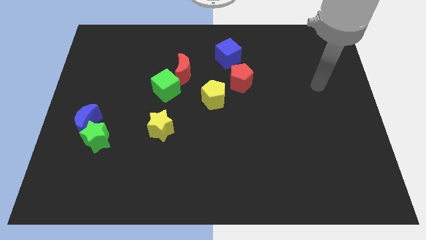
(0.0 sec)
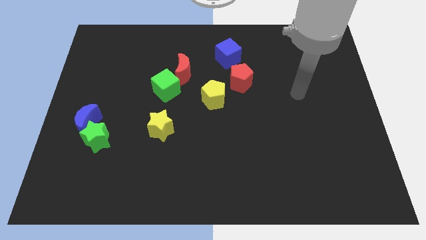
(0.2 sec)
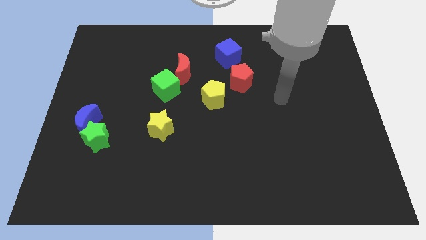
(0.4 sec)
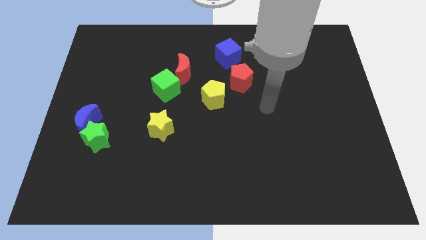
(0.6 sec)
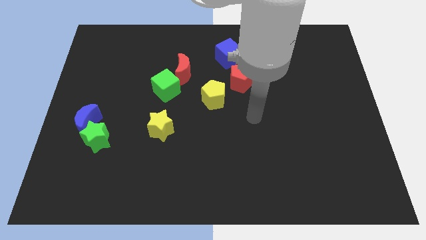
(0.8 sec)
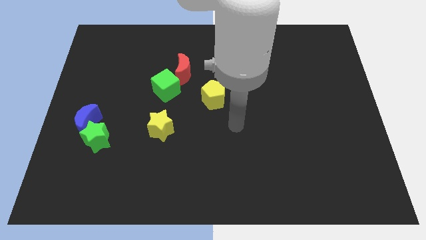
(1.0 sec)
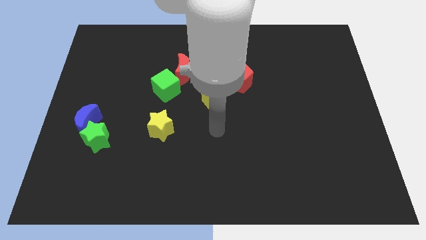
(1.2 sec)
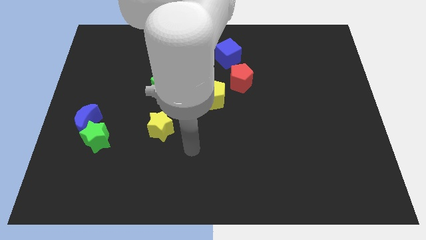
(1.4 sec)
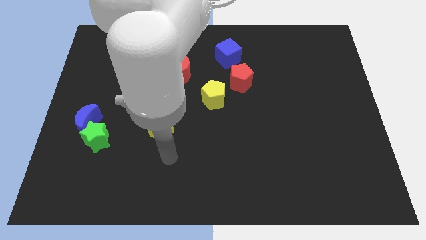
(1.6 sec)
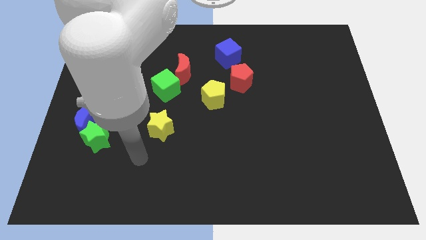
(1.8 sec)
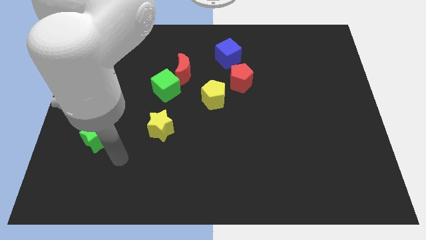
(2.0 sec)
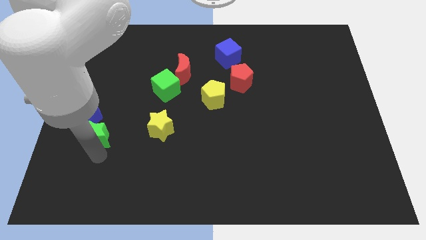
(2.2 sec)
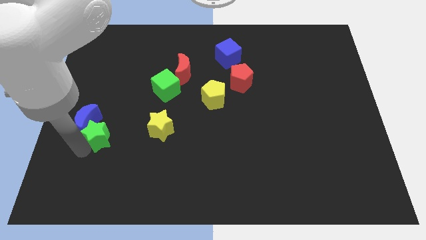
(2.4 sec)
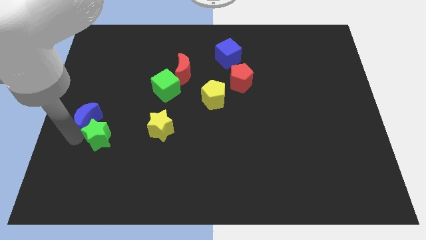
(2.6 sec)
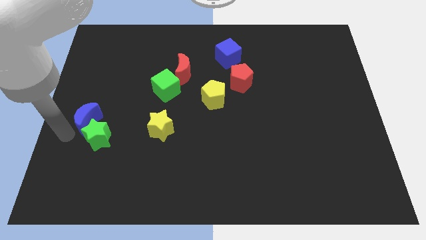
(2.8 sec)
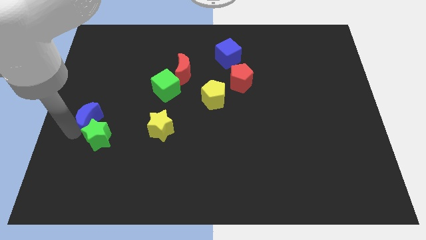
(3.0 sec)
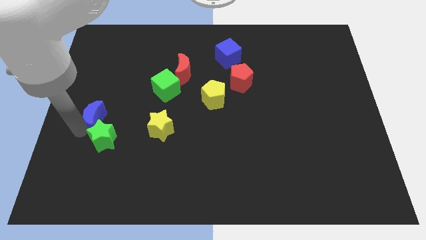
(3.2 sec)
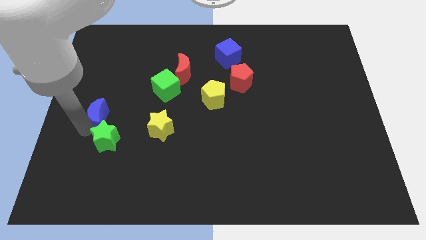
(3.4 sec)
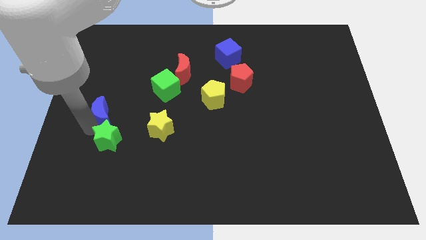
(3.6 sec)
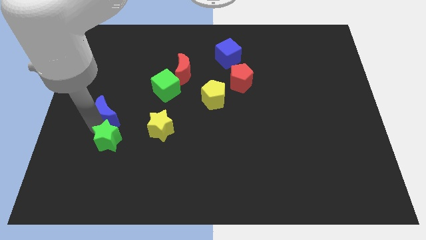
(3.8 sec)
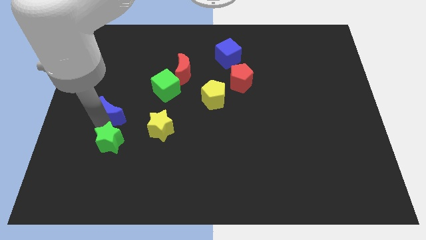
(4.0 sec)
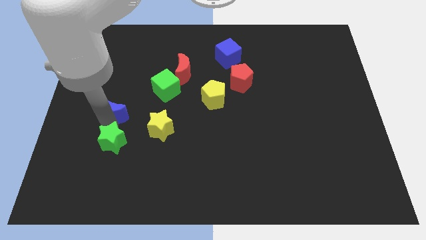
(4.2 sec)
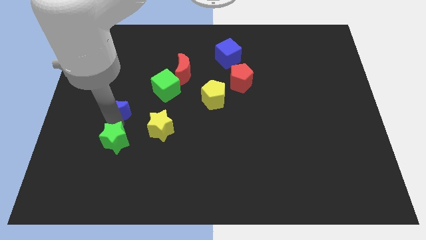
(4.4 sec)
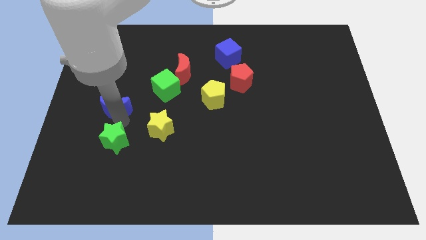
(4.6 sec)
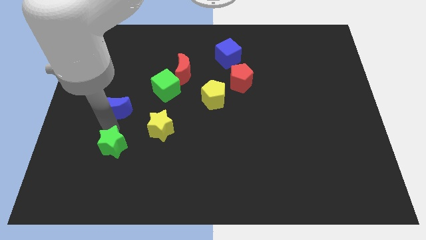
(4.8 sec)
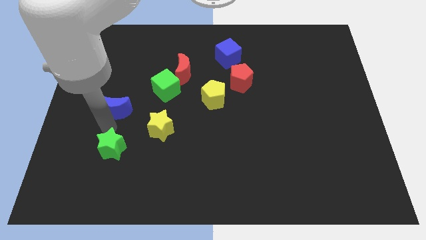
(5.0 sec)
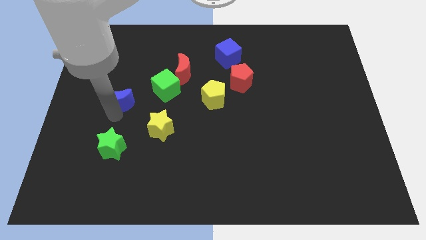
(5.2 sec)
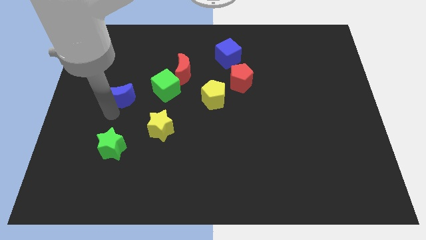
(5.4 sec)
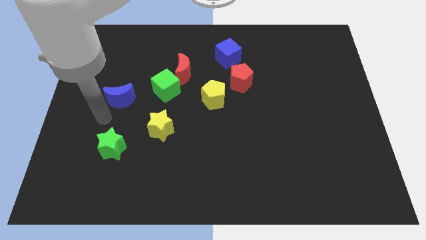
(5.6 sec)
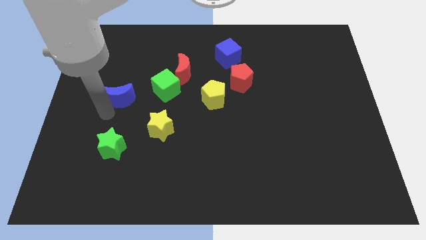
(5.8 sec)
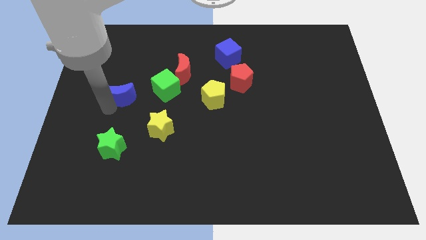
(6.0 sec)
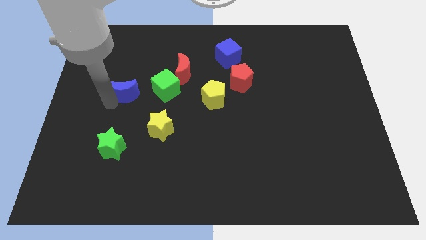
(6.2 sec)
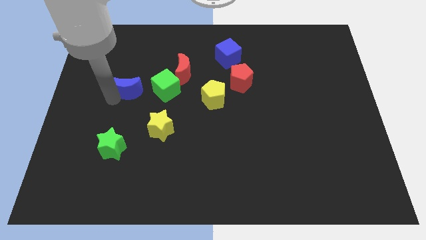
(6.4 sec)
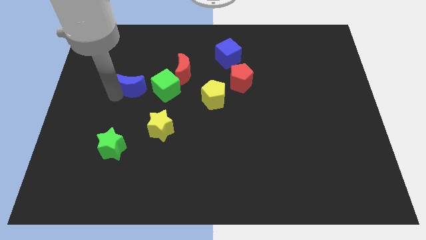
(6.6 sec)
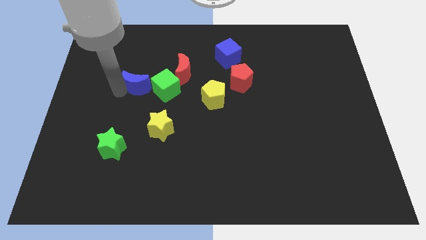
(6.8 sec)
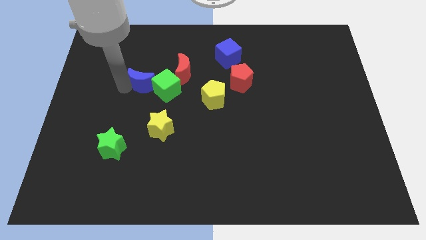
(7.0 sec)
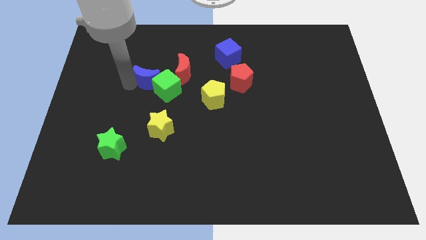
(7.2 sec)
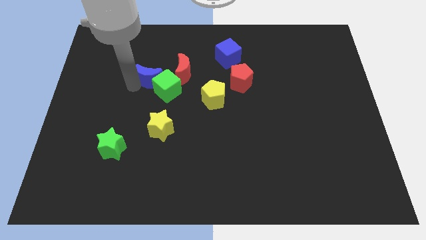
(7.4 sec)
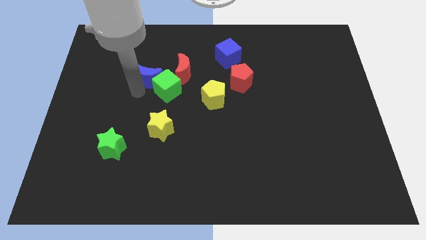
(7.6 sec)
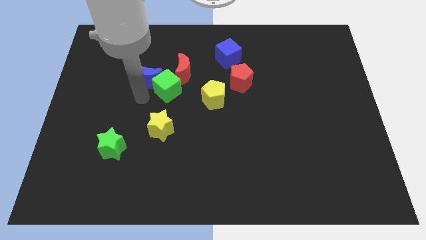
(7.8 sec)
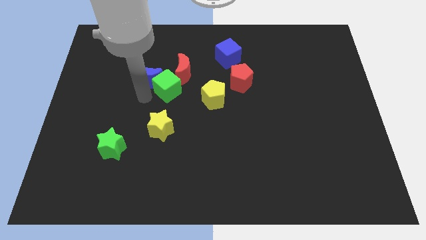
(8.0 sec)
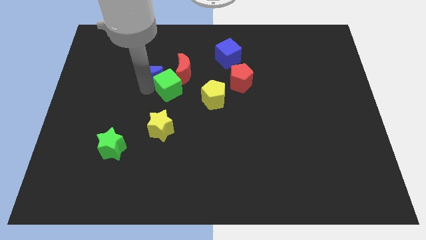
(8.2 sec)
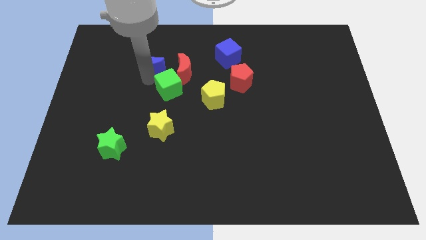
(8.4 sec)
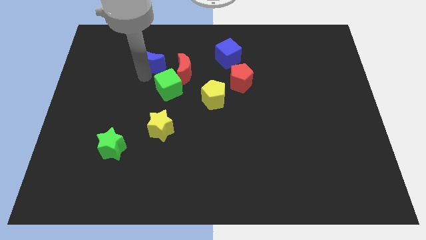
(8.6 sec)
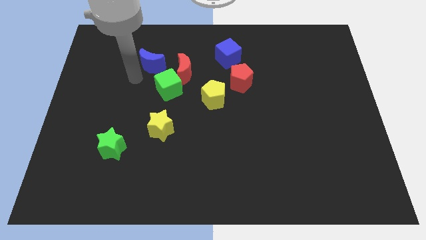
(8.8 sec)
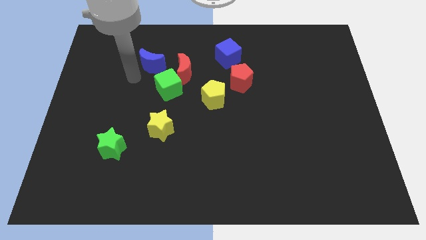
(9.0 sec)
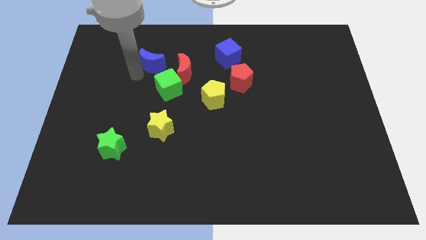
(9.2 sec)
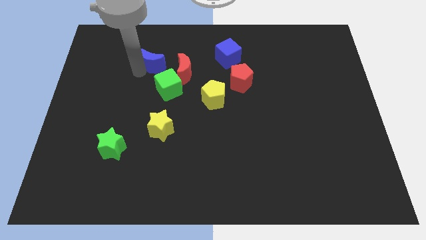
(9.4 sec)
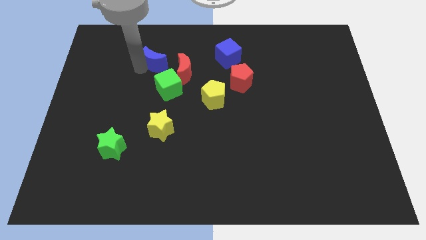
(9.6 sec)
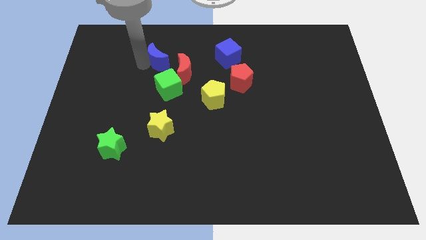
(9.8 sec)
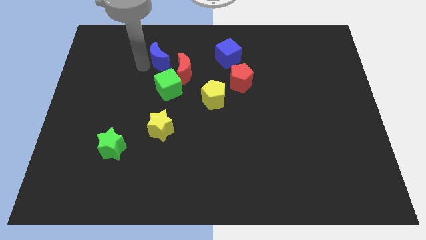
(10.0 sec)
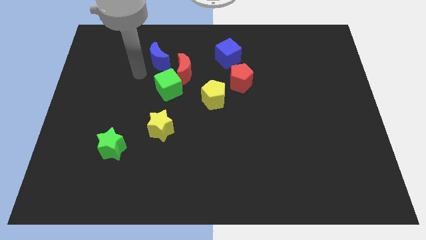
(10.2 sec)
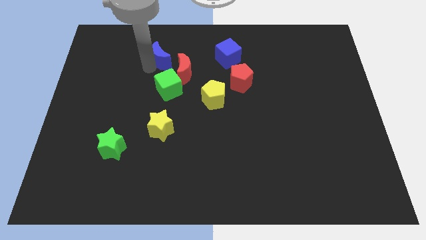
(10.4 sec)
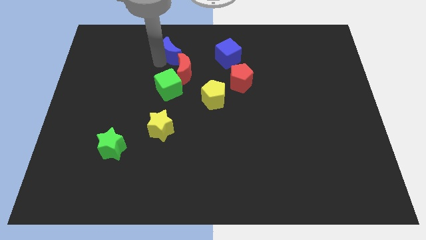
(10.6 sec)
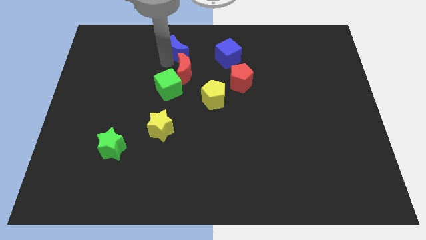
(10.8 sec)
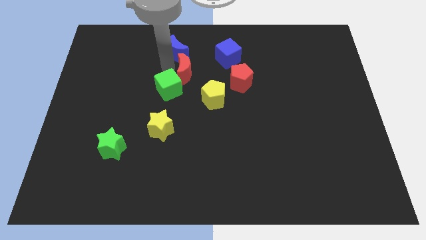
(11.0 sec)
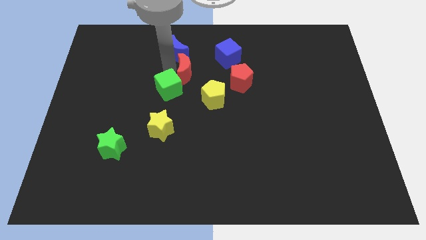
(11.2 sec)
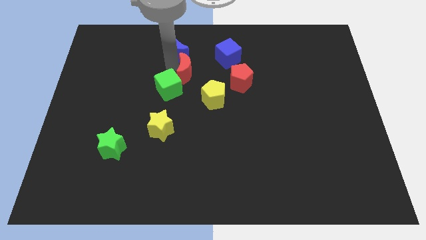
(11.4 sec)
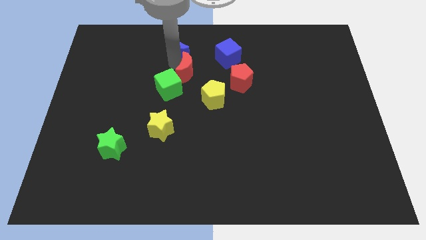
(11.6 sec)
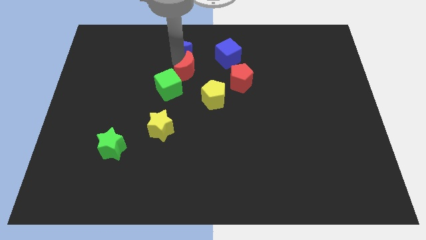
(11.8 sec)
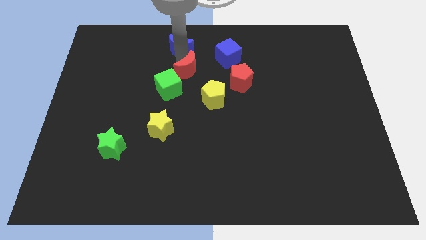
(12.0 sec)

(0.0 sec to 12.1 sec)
put the blue moon to the top side
